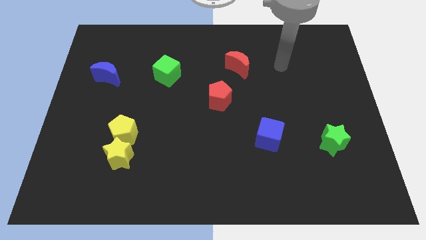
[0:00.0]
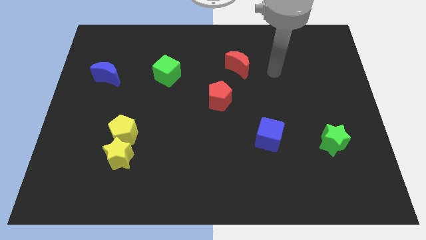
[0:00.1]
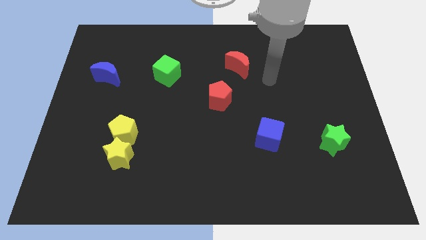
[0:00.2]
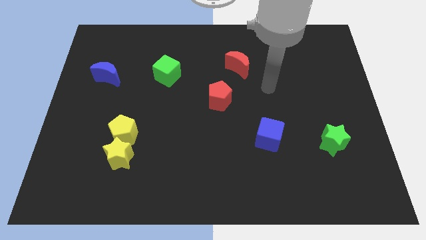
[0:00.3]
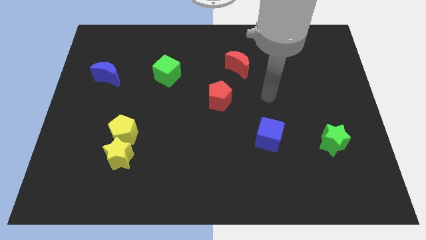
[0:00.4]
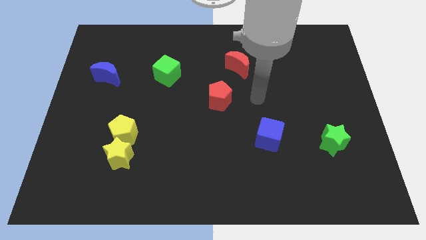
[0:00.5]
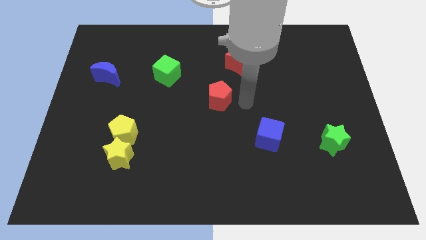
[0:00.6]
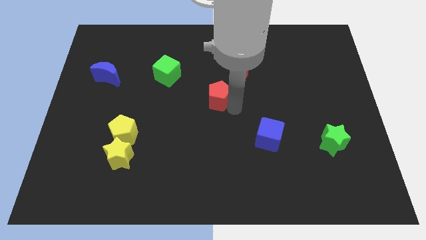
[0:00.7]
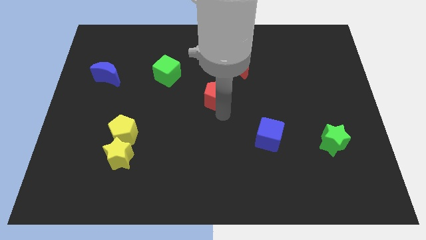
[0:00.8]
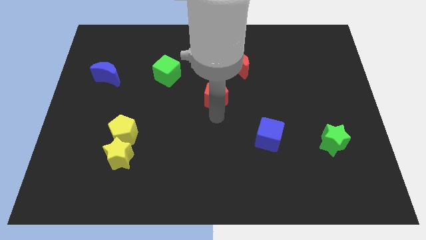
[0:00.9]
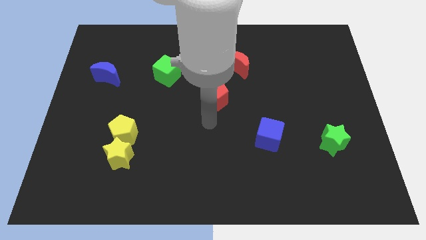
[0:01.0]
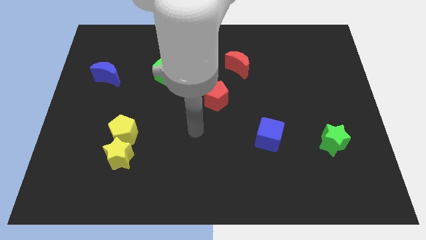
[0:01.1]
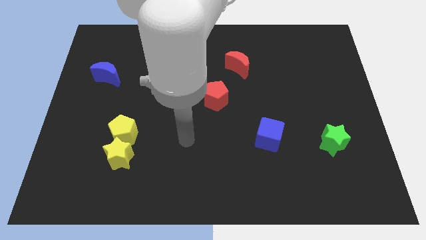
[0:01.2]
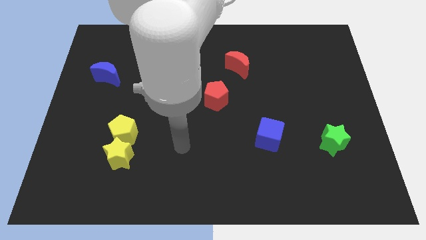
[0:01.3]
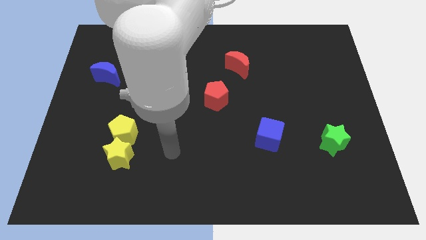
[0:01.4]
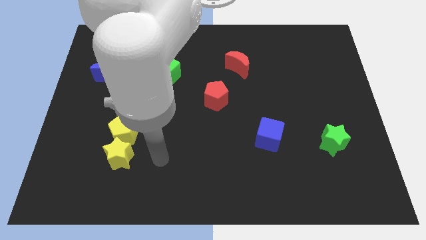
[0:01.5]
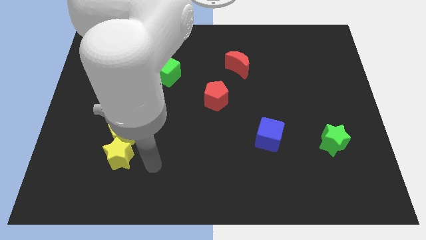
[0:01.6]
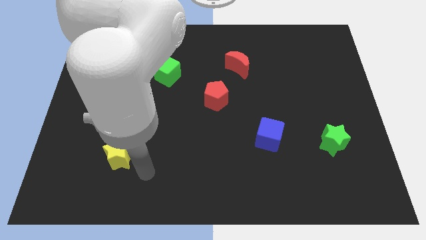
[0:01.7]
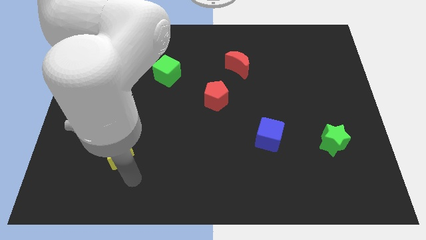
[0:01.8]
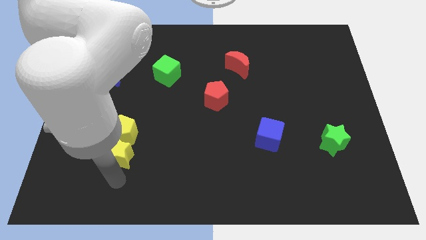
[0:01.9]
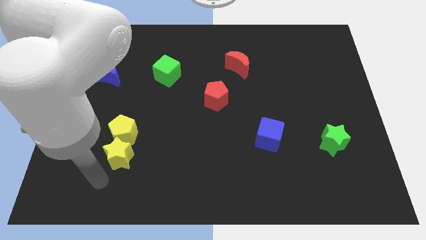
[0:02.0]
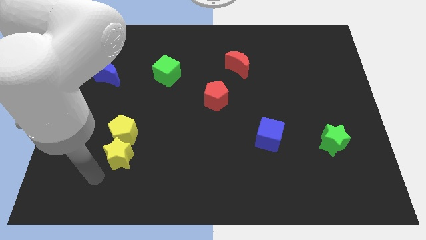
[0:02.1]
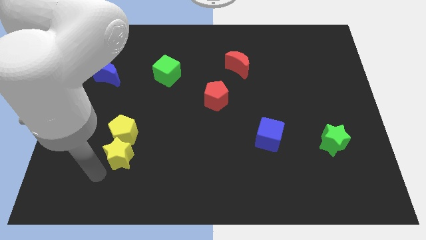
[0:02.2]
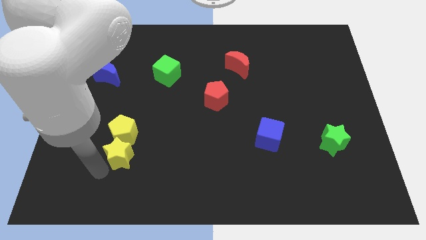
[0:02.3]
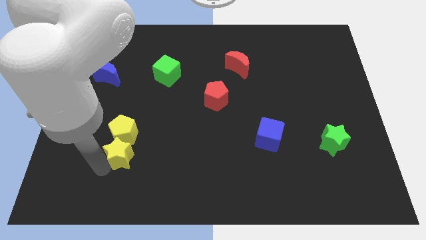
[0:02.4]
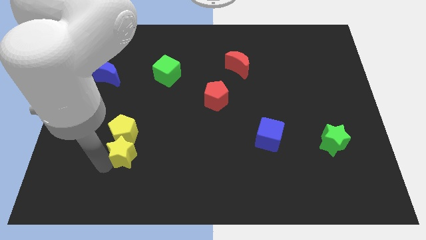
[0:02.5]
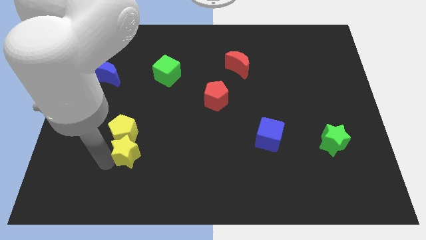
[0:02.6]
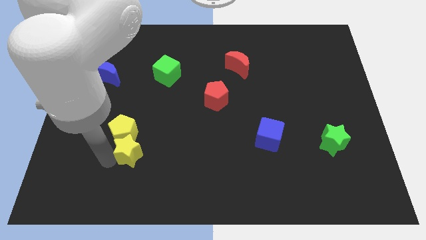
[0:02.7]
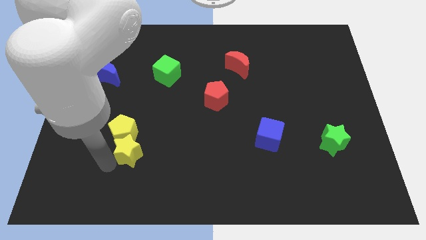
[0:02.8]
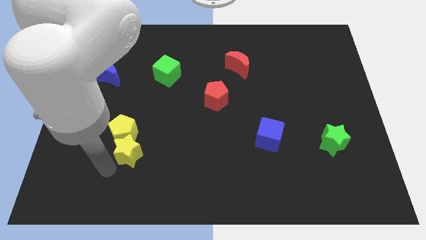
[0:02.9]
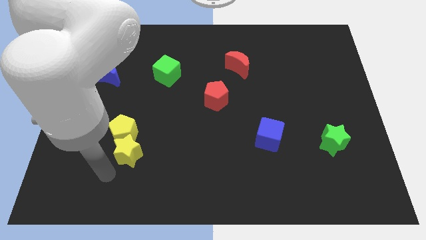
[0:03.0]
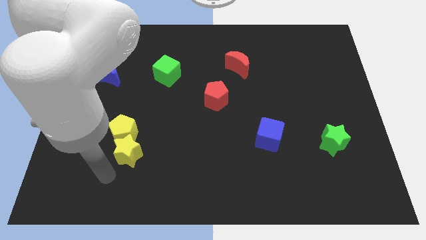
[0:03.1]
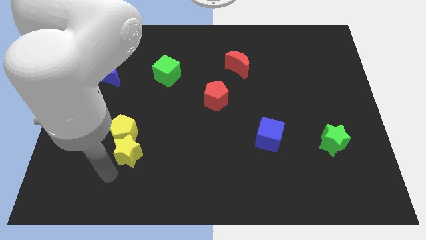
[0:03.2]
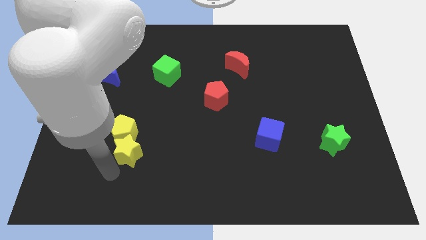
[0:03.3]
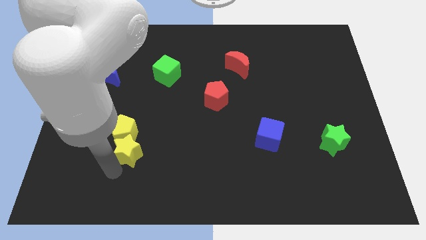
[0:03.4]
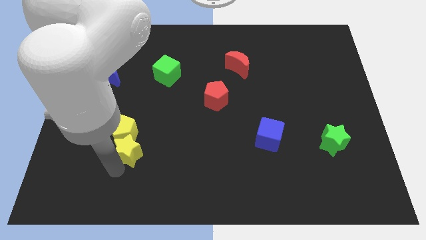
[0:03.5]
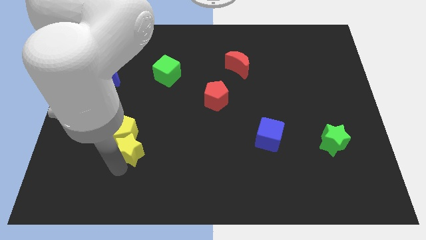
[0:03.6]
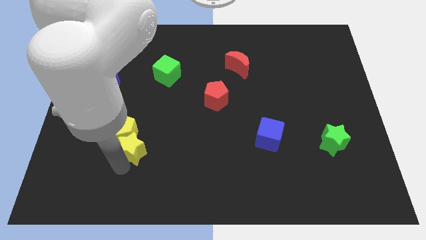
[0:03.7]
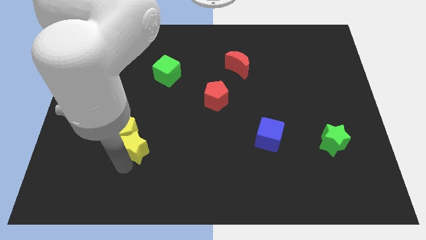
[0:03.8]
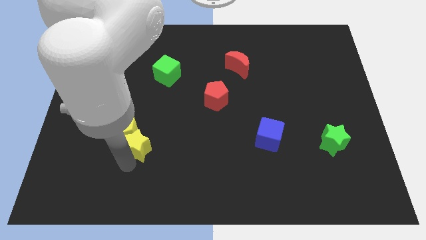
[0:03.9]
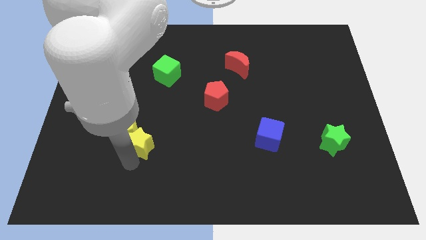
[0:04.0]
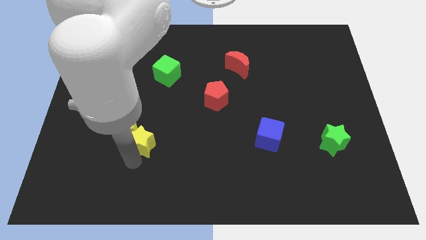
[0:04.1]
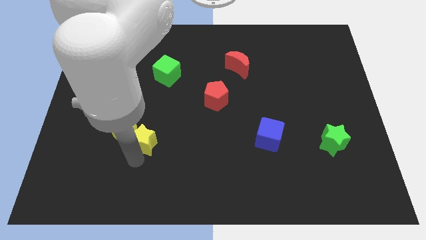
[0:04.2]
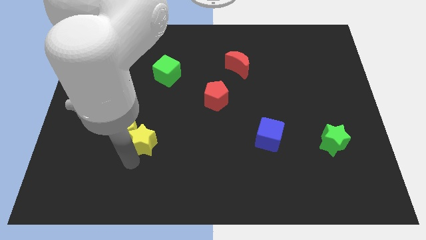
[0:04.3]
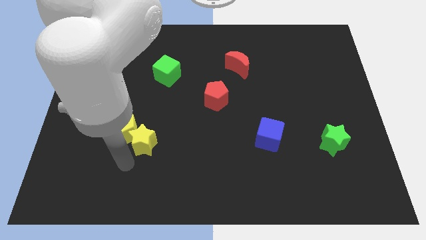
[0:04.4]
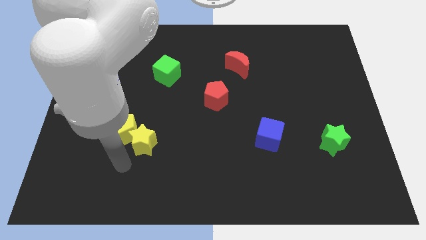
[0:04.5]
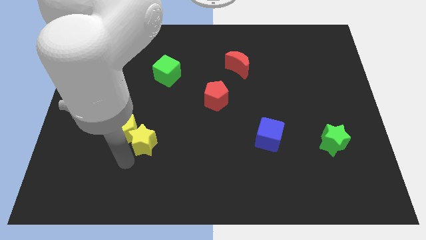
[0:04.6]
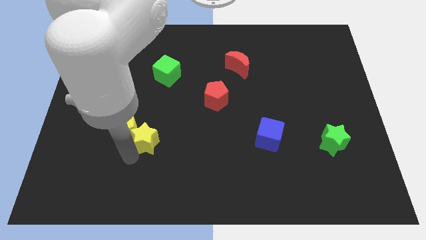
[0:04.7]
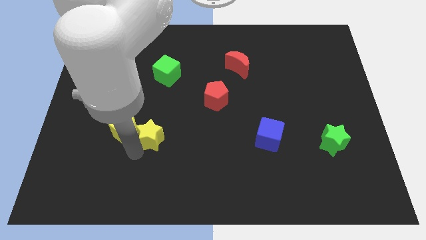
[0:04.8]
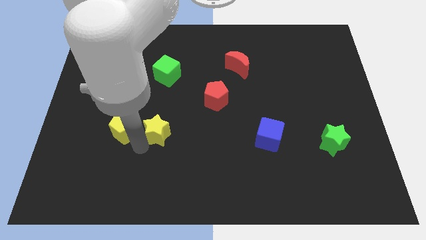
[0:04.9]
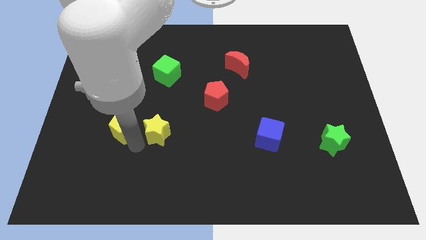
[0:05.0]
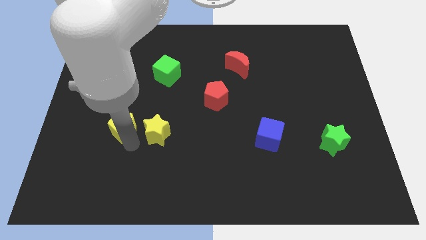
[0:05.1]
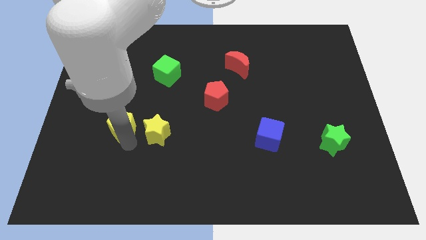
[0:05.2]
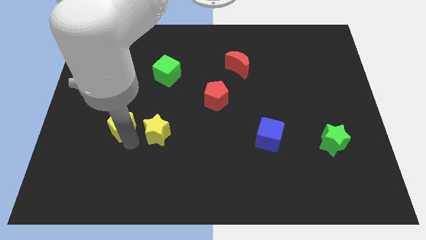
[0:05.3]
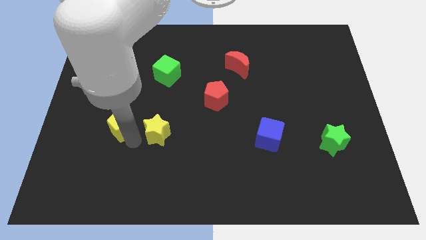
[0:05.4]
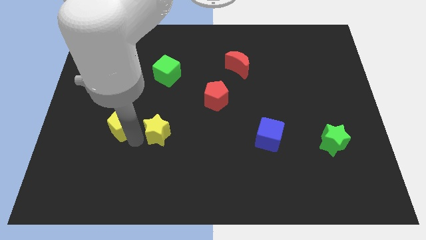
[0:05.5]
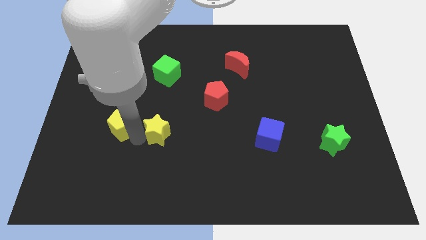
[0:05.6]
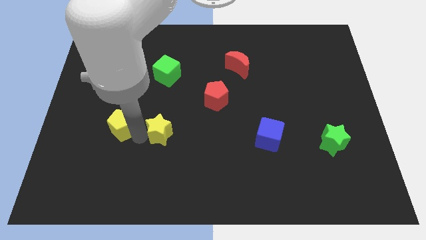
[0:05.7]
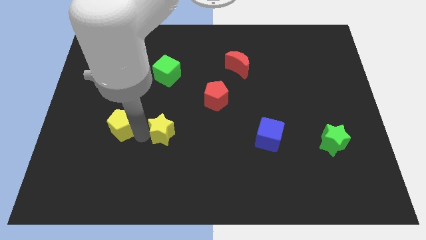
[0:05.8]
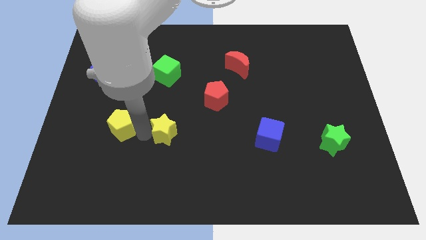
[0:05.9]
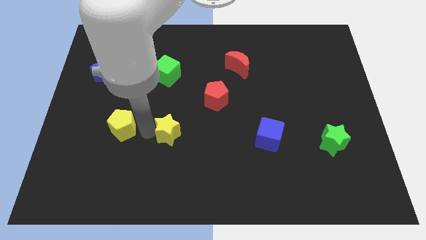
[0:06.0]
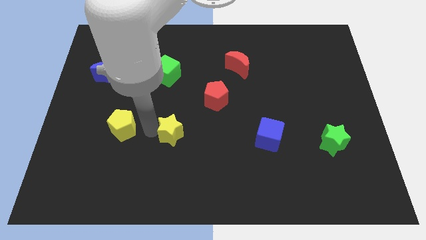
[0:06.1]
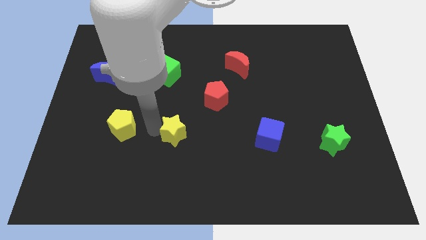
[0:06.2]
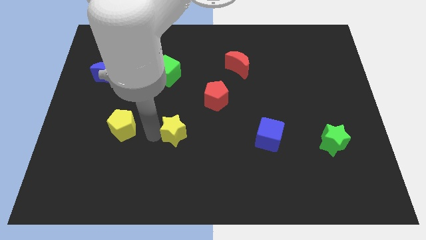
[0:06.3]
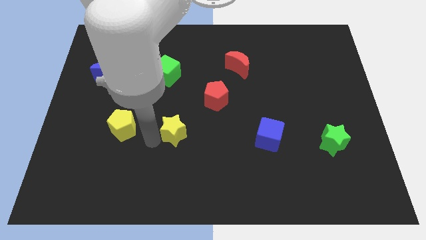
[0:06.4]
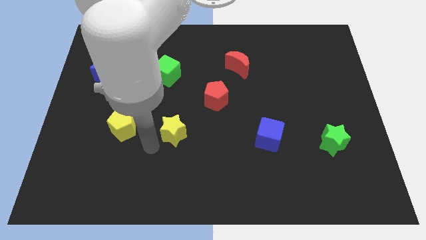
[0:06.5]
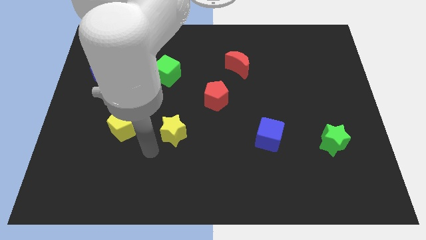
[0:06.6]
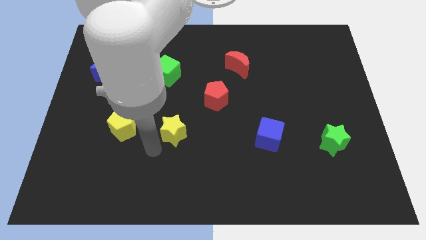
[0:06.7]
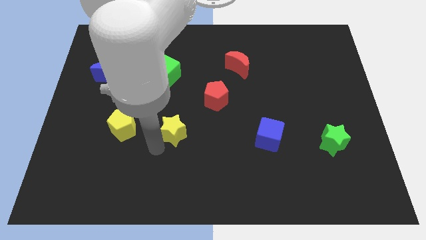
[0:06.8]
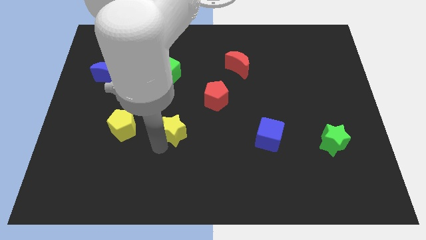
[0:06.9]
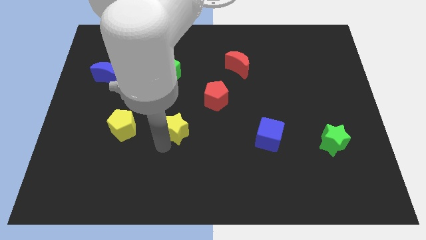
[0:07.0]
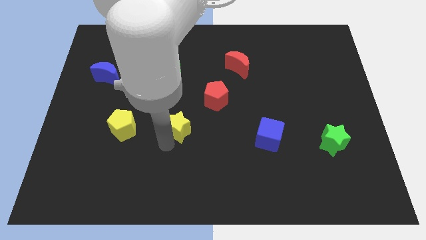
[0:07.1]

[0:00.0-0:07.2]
push the yellow star to the bottom left of the red pentagon

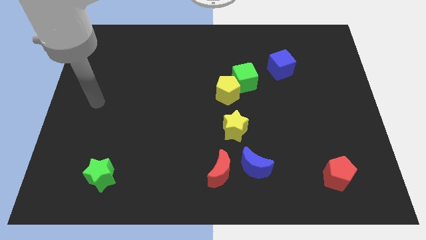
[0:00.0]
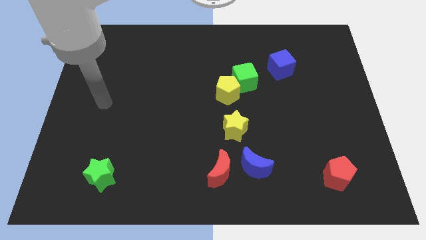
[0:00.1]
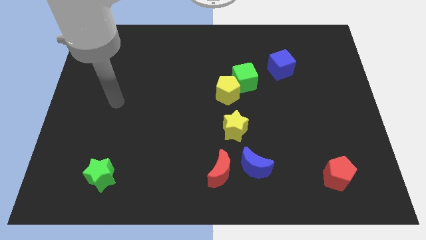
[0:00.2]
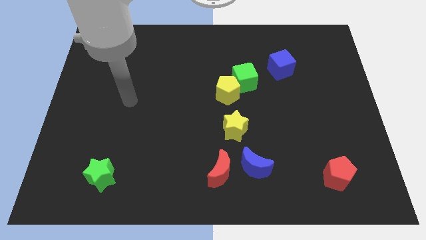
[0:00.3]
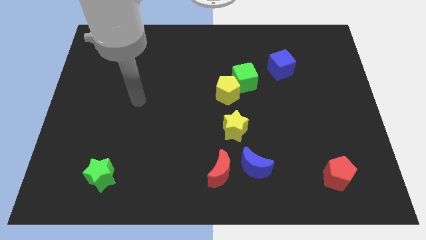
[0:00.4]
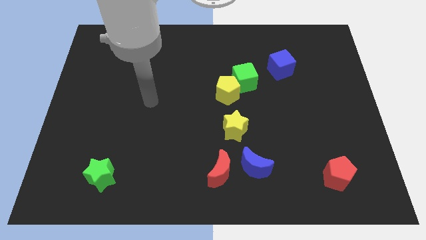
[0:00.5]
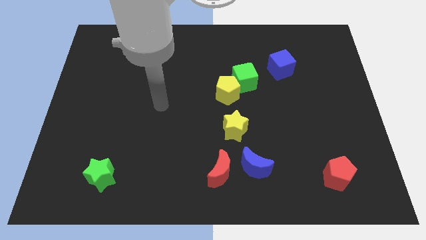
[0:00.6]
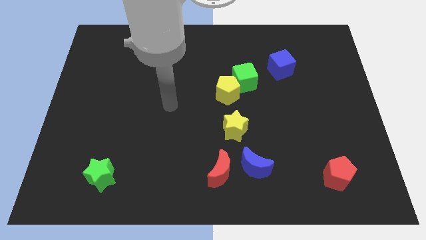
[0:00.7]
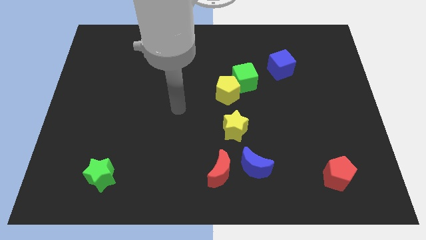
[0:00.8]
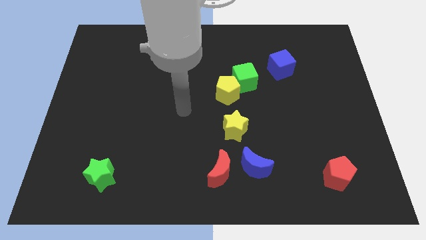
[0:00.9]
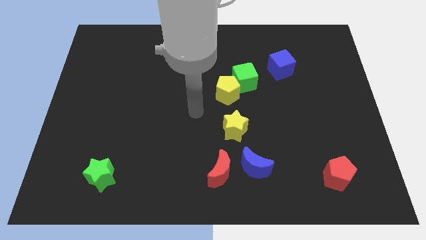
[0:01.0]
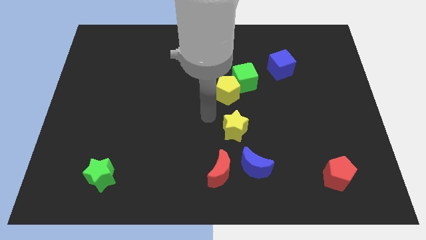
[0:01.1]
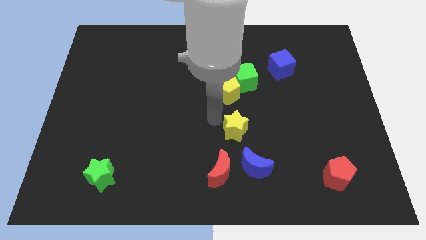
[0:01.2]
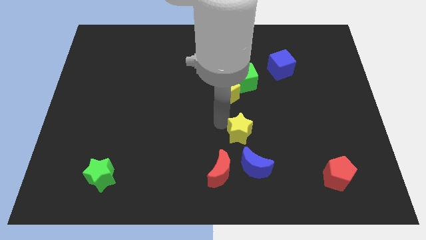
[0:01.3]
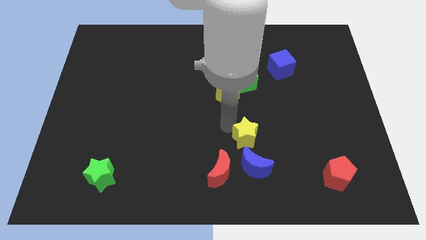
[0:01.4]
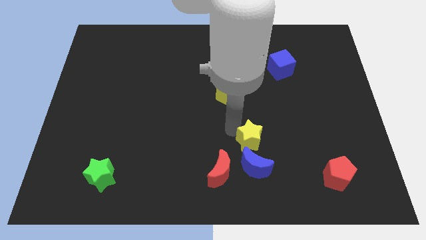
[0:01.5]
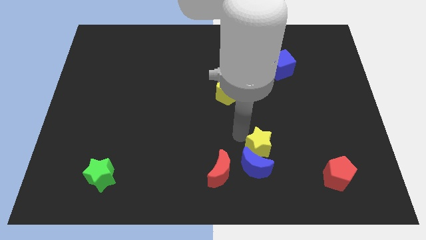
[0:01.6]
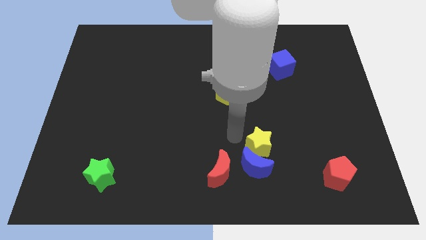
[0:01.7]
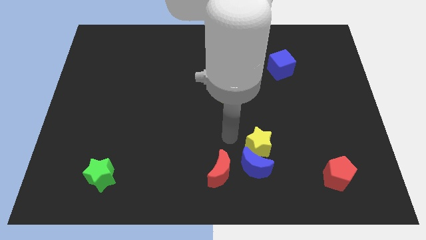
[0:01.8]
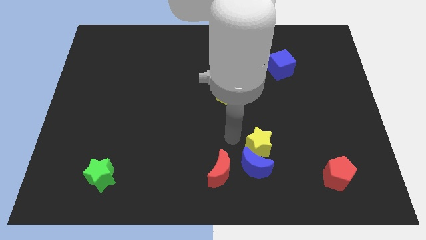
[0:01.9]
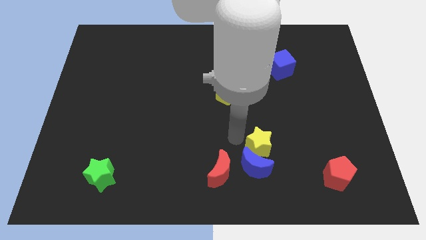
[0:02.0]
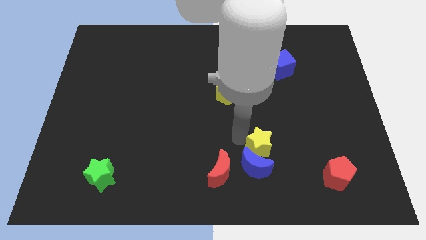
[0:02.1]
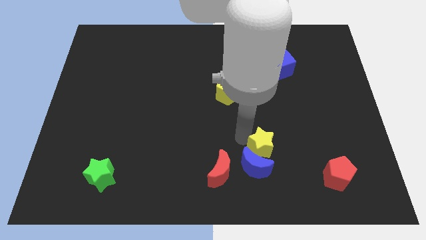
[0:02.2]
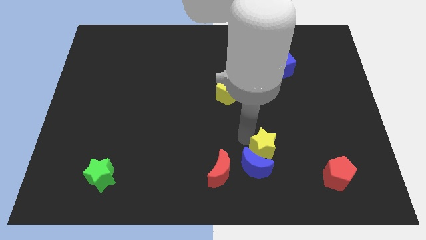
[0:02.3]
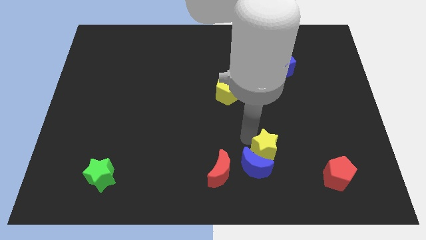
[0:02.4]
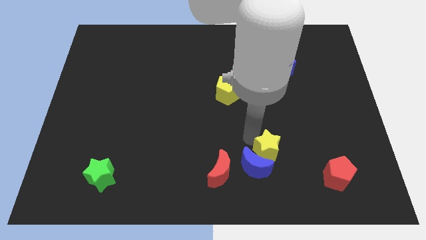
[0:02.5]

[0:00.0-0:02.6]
slide the yellow star to the right of the blue moon
